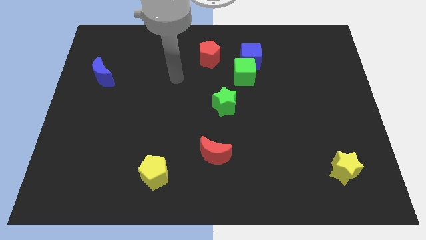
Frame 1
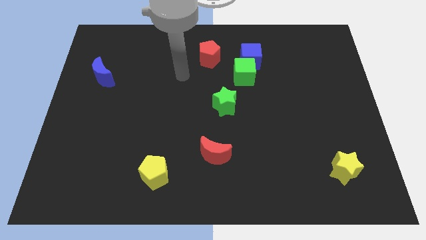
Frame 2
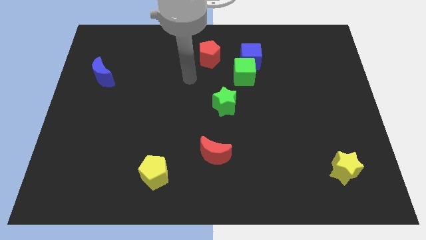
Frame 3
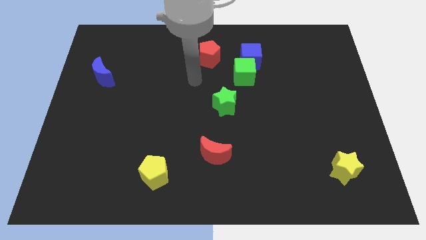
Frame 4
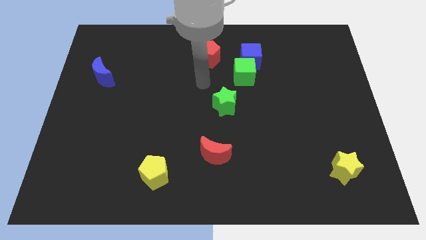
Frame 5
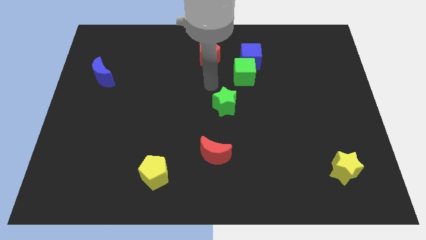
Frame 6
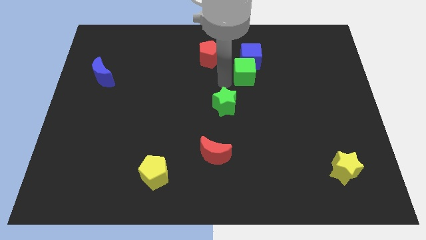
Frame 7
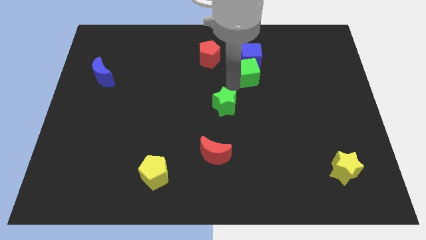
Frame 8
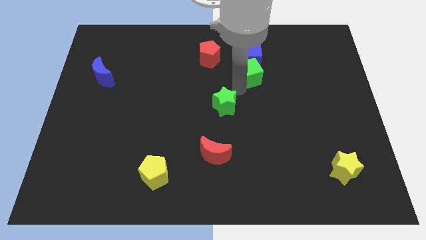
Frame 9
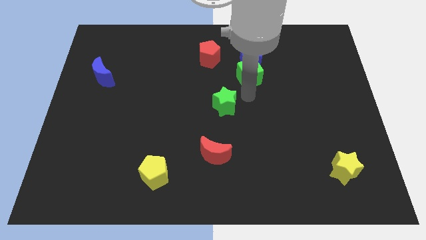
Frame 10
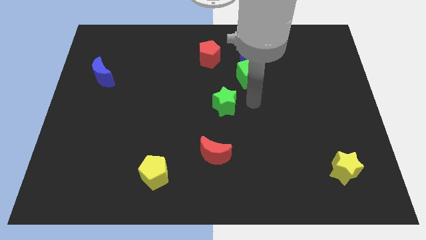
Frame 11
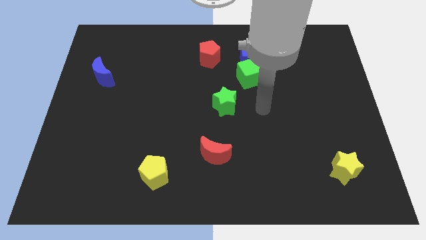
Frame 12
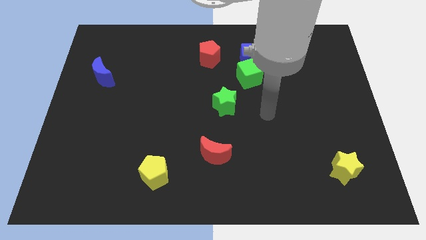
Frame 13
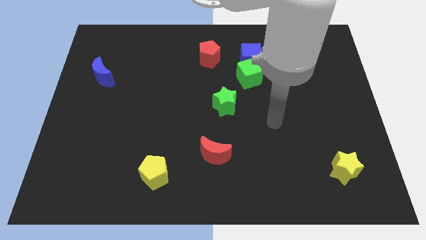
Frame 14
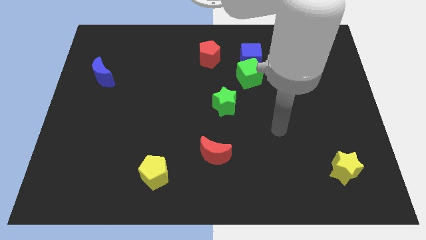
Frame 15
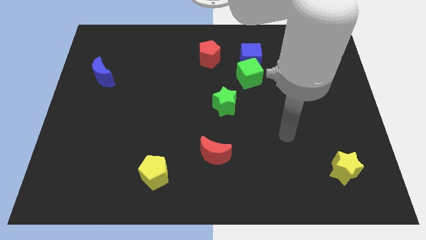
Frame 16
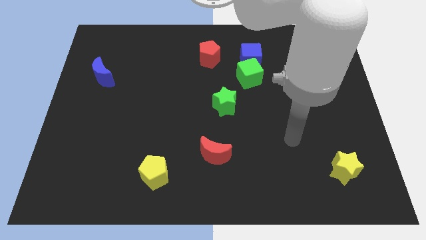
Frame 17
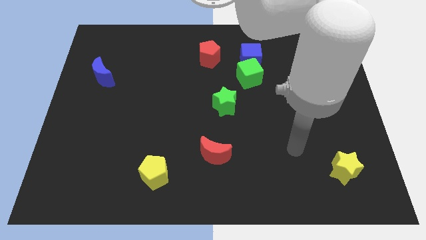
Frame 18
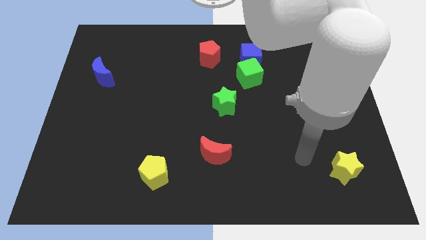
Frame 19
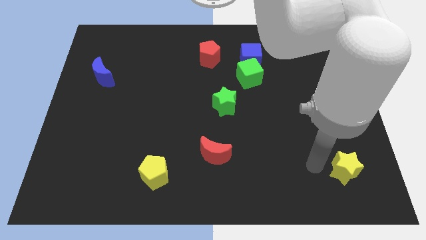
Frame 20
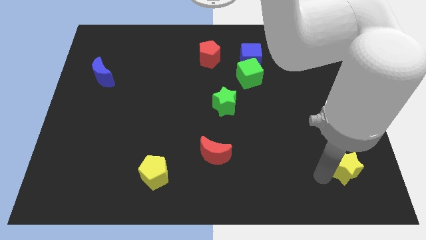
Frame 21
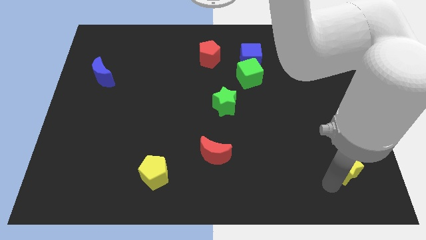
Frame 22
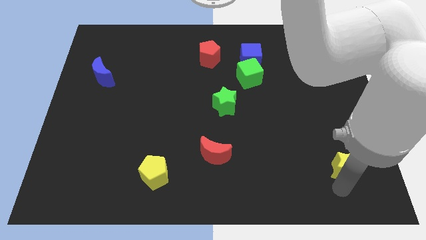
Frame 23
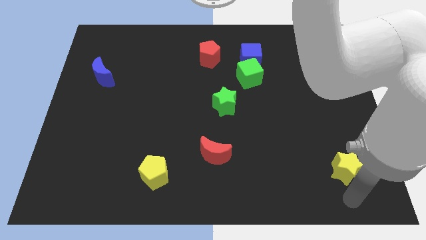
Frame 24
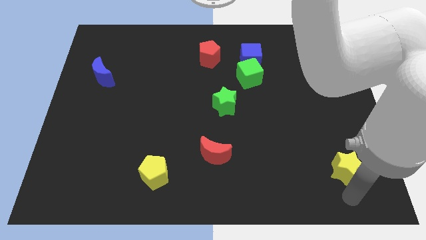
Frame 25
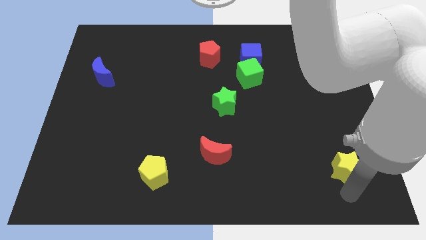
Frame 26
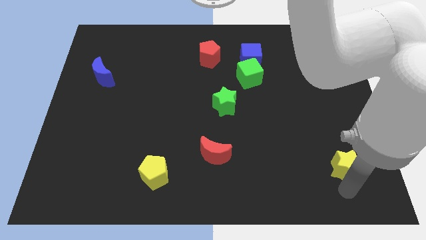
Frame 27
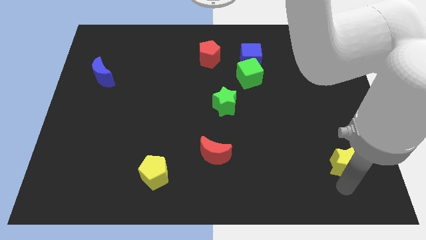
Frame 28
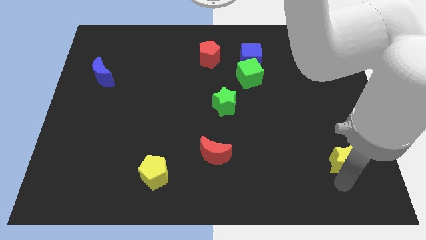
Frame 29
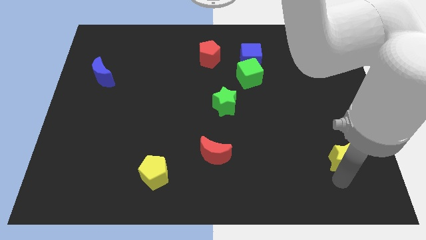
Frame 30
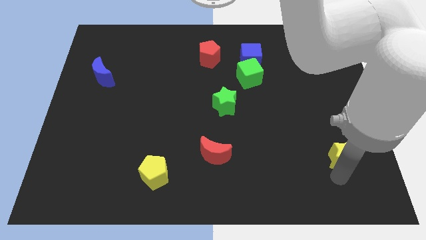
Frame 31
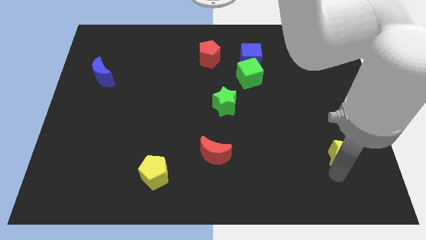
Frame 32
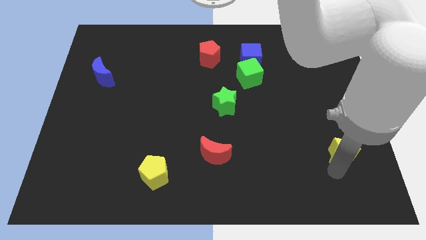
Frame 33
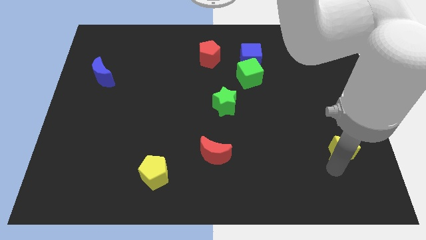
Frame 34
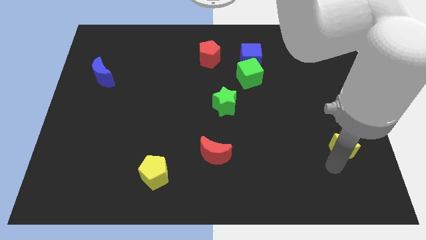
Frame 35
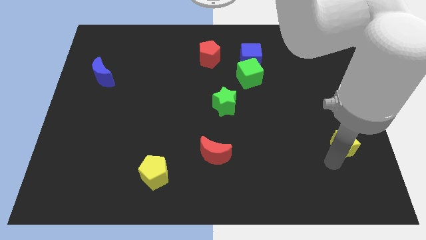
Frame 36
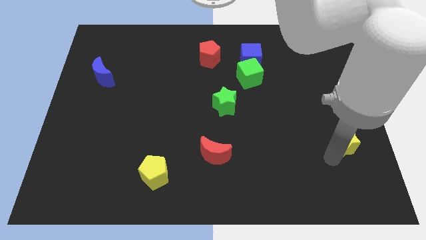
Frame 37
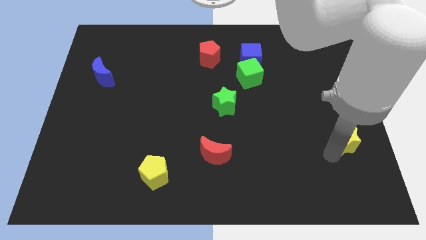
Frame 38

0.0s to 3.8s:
push the yellow star upwards a little bit

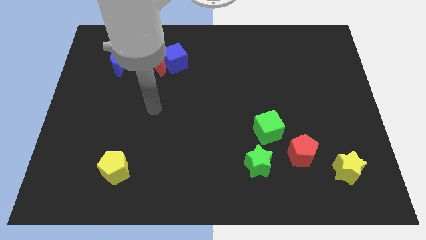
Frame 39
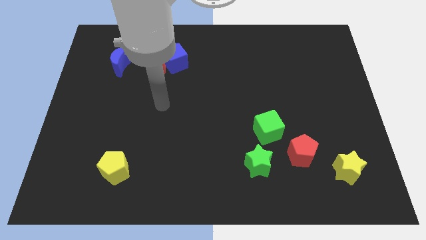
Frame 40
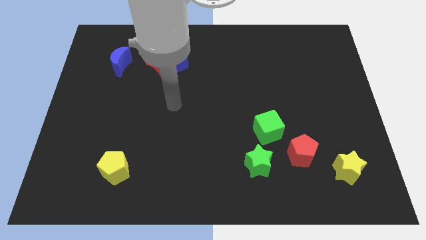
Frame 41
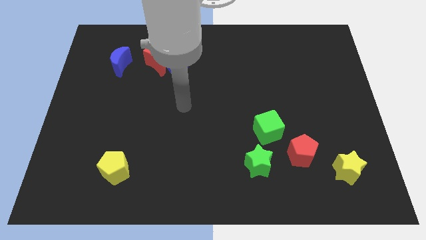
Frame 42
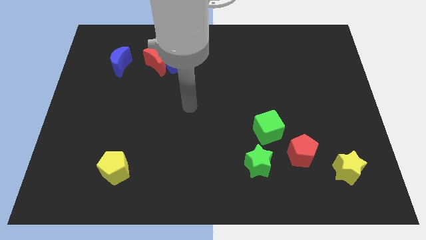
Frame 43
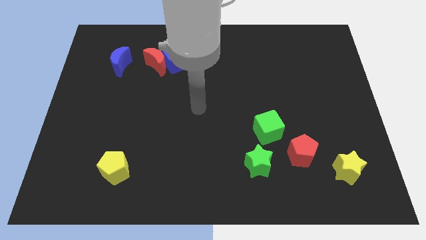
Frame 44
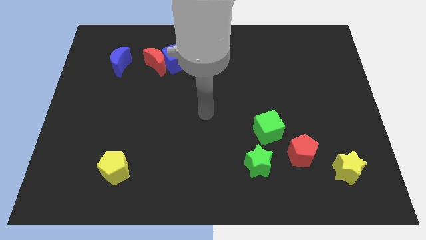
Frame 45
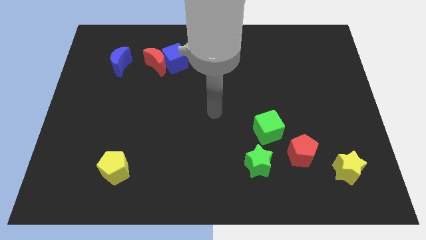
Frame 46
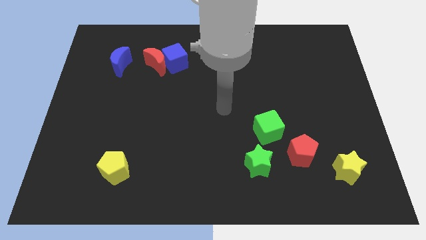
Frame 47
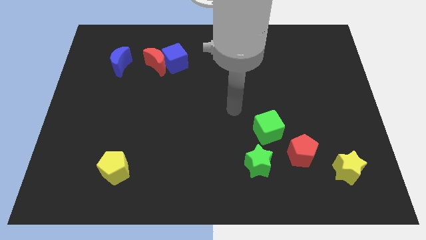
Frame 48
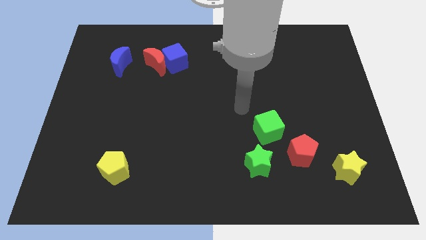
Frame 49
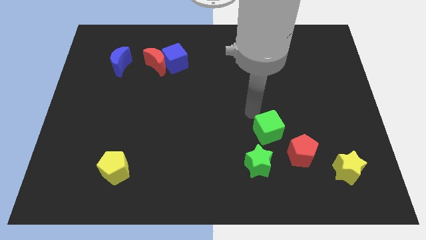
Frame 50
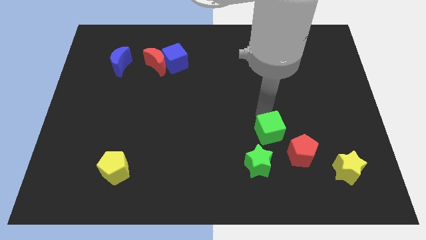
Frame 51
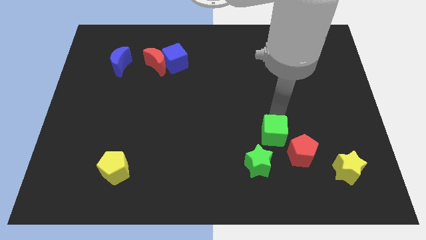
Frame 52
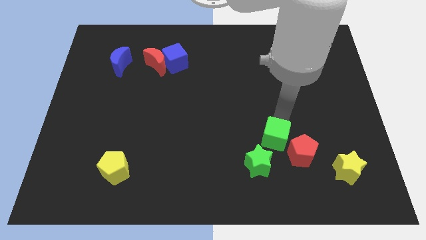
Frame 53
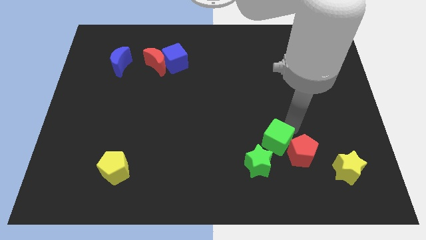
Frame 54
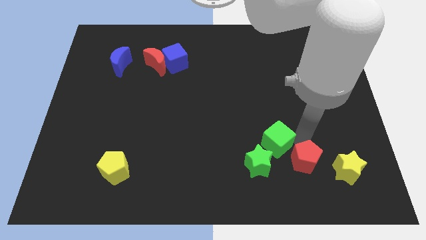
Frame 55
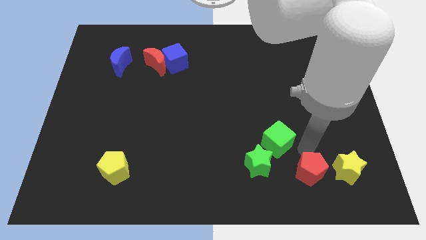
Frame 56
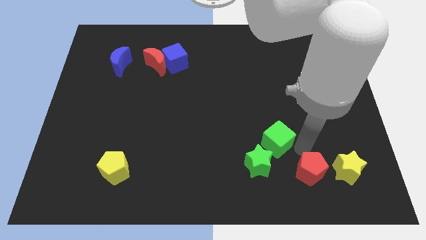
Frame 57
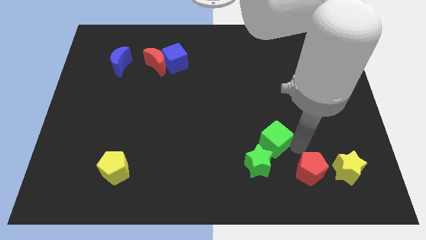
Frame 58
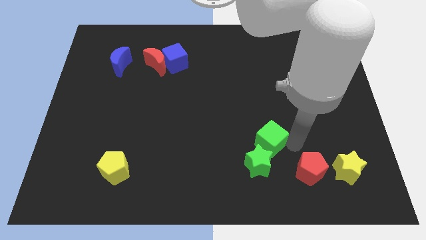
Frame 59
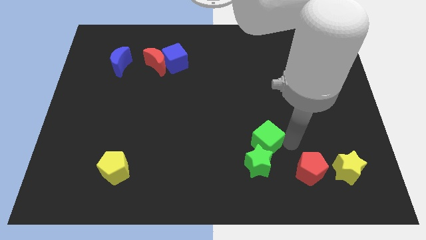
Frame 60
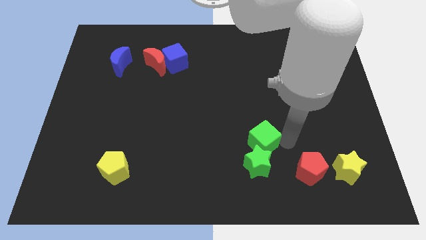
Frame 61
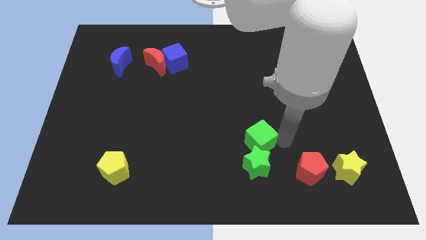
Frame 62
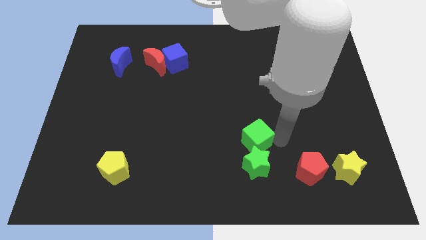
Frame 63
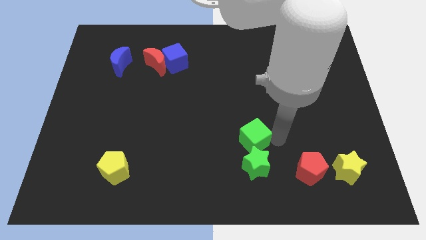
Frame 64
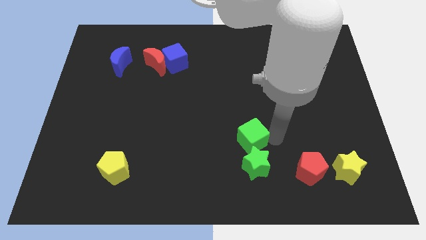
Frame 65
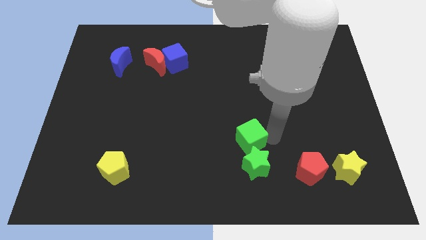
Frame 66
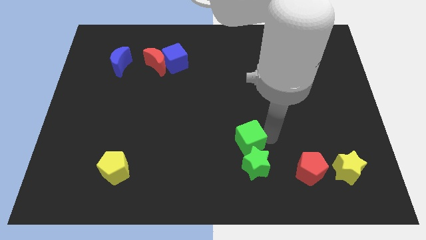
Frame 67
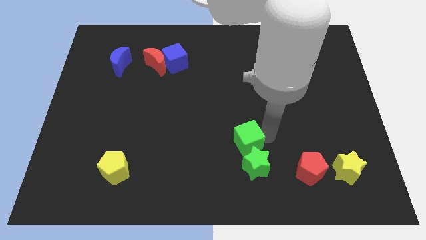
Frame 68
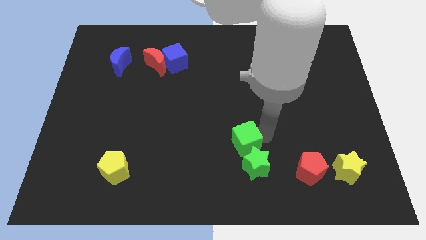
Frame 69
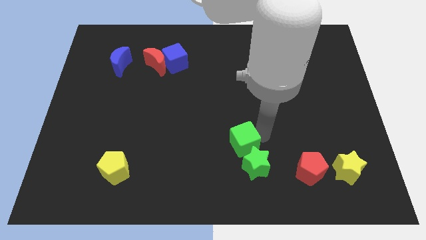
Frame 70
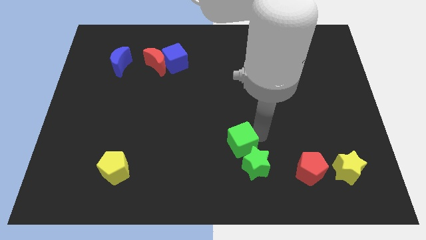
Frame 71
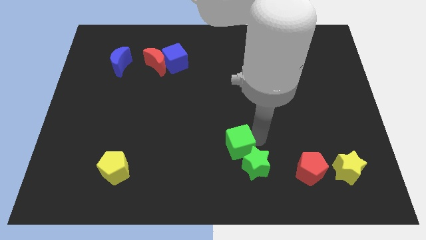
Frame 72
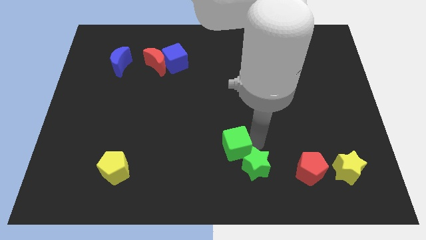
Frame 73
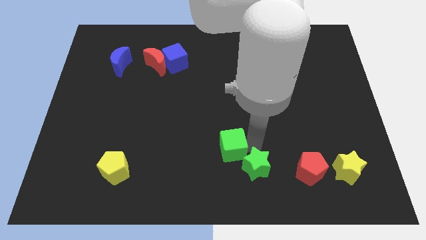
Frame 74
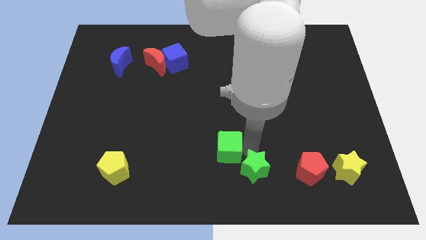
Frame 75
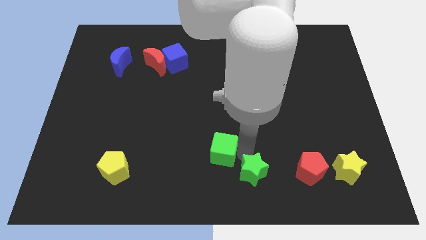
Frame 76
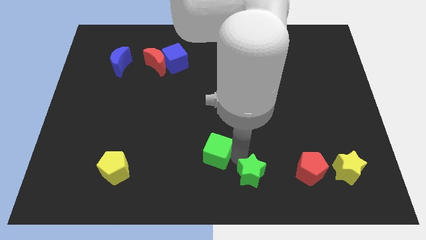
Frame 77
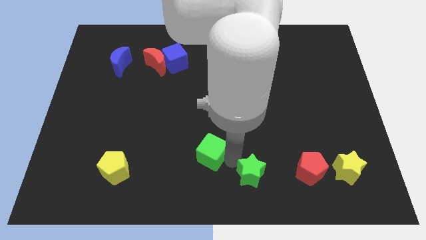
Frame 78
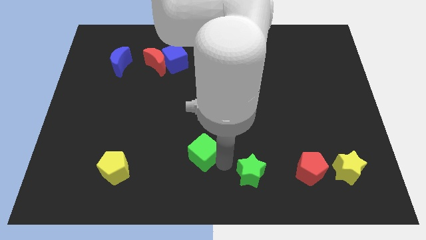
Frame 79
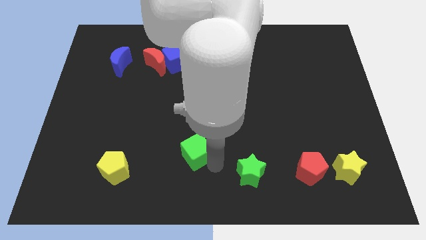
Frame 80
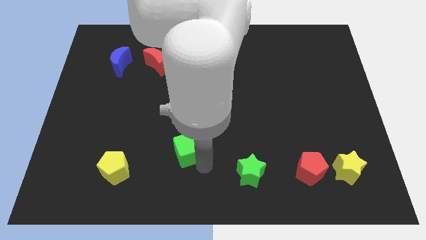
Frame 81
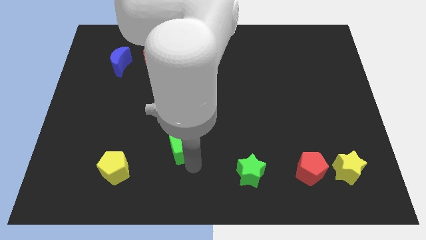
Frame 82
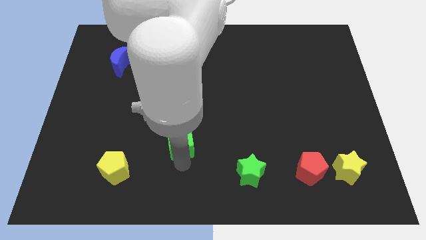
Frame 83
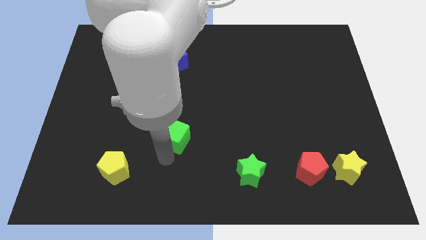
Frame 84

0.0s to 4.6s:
push the green cube left
